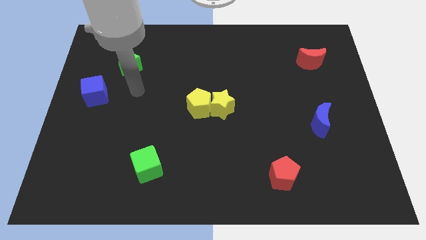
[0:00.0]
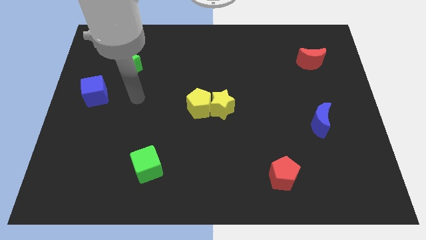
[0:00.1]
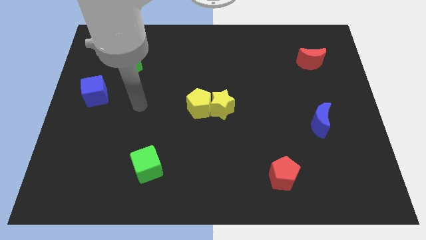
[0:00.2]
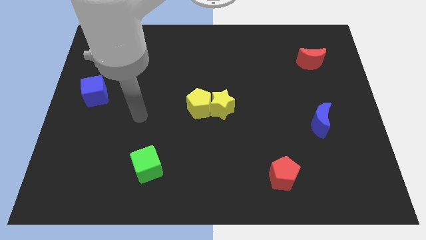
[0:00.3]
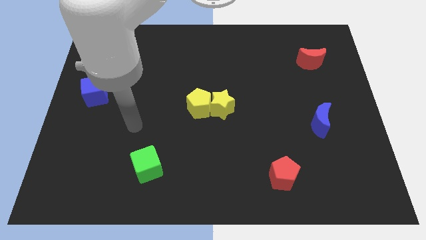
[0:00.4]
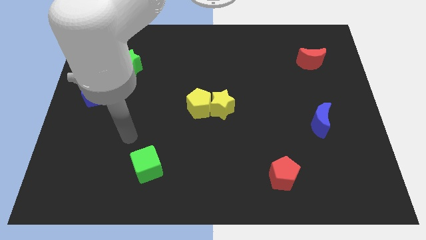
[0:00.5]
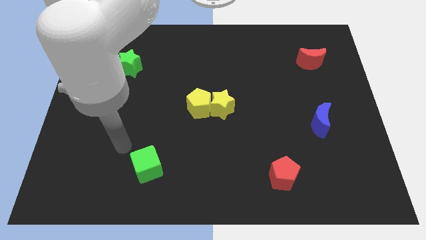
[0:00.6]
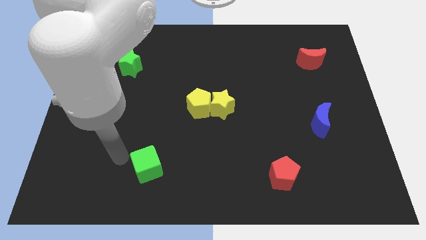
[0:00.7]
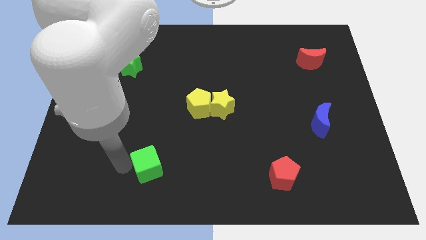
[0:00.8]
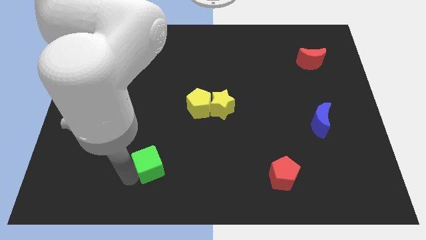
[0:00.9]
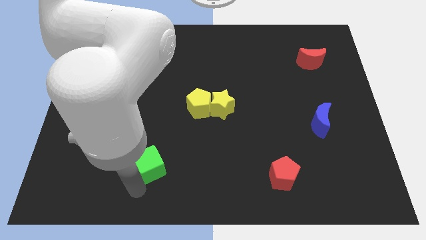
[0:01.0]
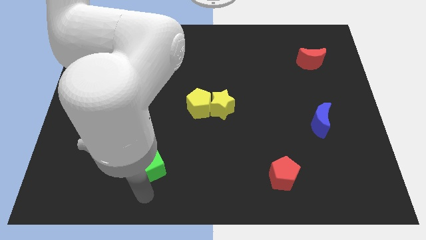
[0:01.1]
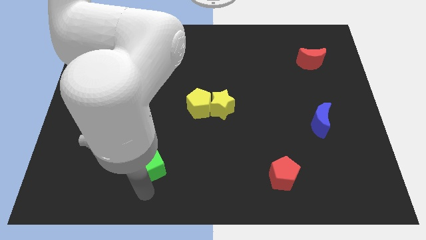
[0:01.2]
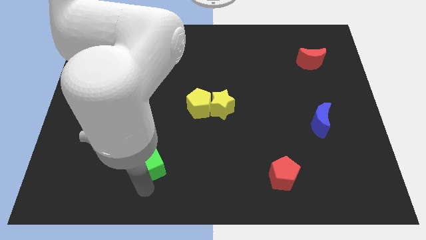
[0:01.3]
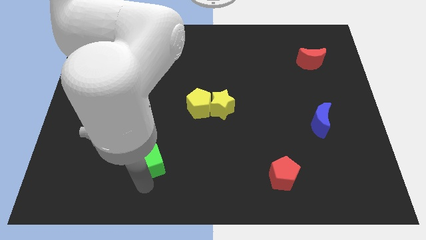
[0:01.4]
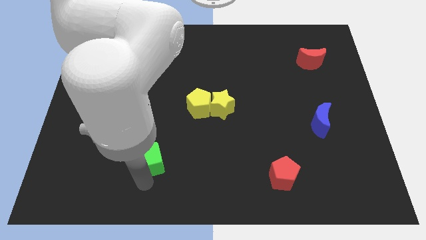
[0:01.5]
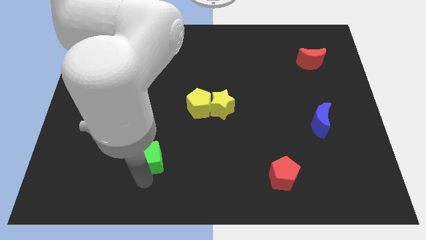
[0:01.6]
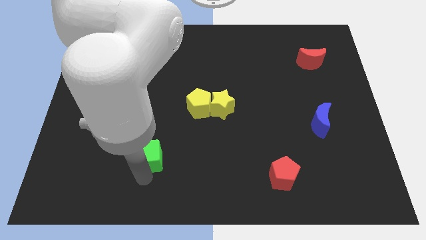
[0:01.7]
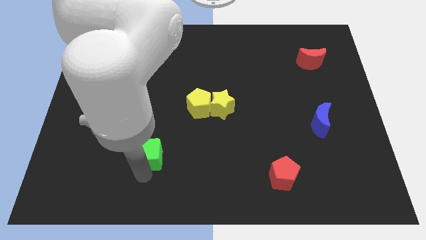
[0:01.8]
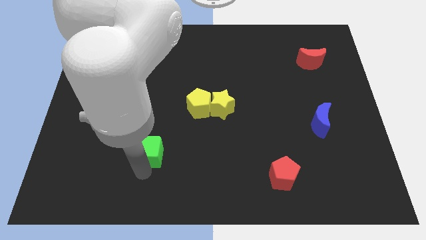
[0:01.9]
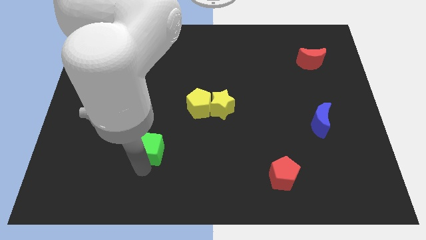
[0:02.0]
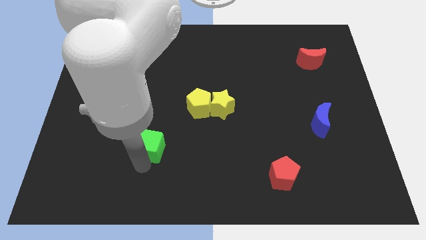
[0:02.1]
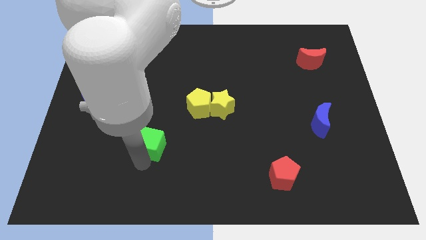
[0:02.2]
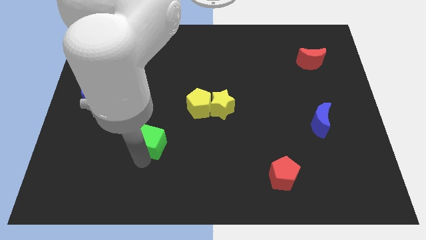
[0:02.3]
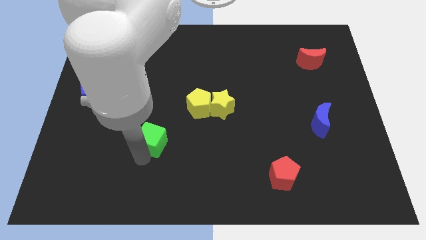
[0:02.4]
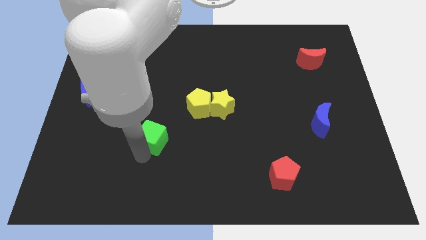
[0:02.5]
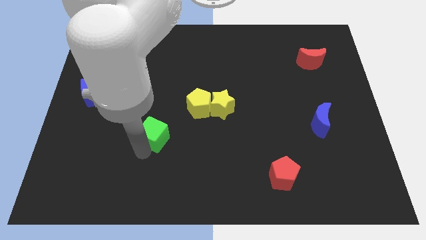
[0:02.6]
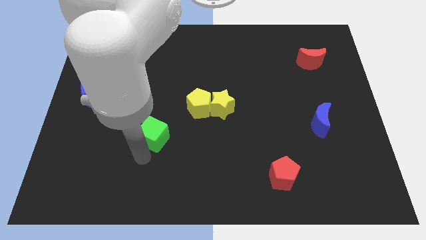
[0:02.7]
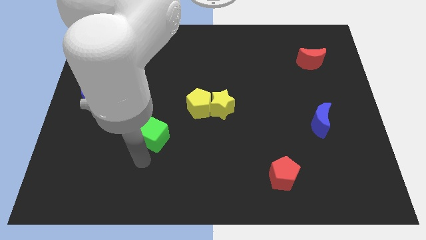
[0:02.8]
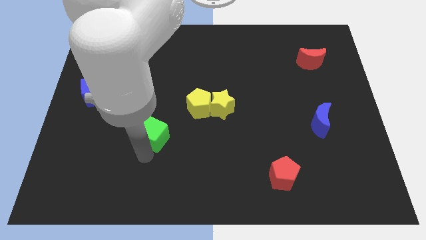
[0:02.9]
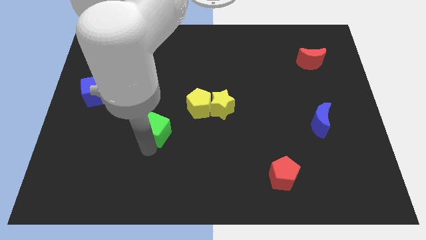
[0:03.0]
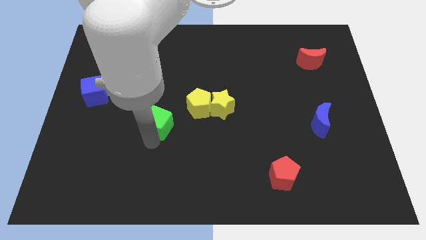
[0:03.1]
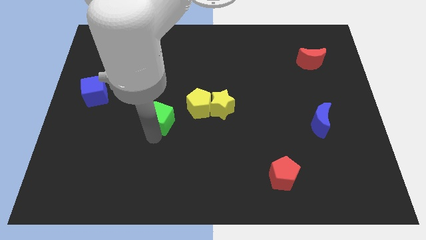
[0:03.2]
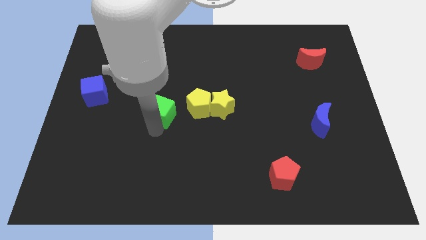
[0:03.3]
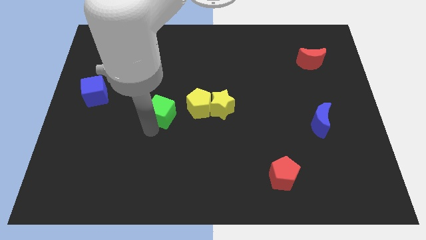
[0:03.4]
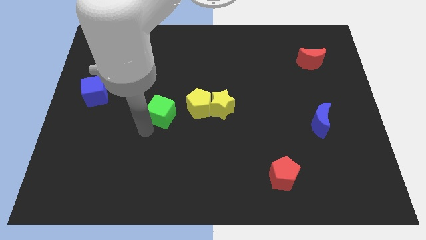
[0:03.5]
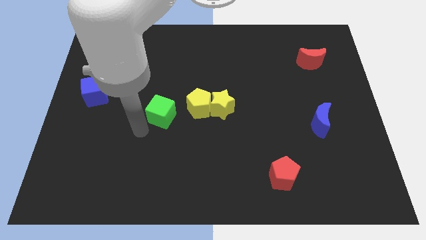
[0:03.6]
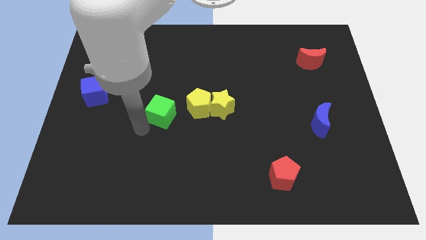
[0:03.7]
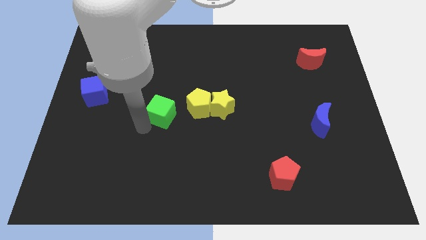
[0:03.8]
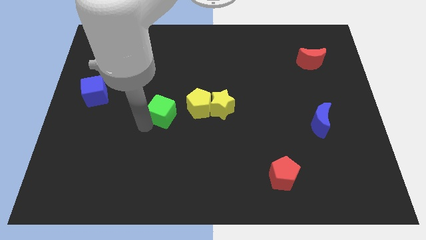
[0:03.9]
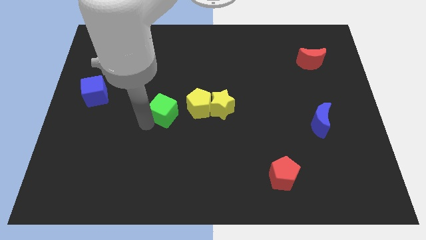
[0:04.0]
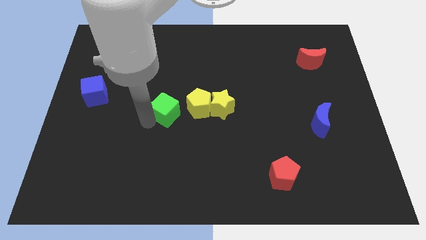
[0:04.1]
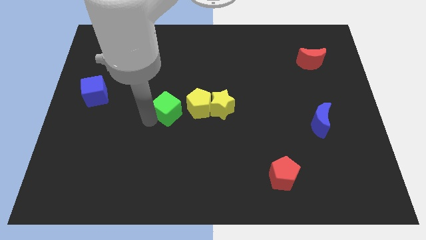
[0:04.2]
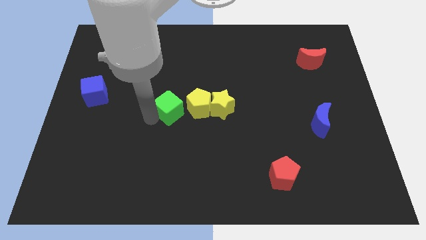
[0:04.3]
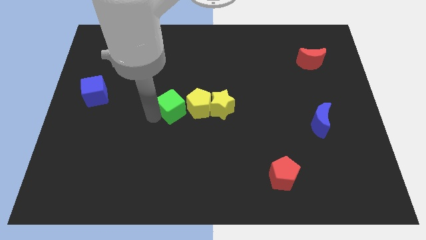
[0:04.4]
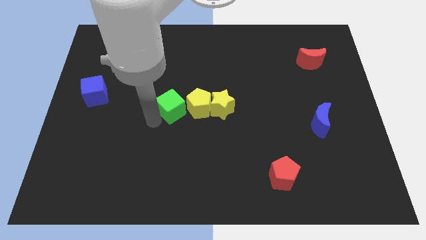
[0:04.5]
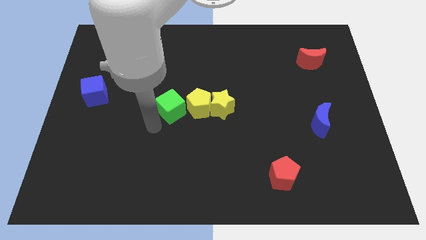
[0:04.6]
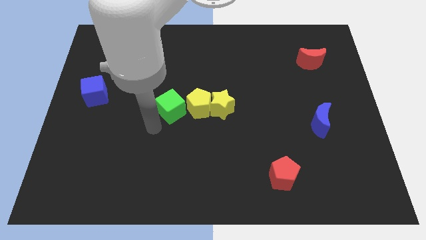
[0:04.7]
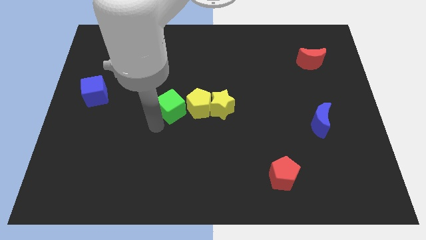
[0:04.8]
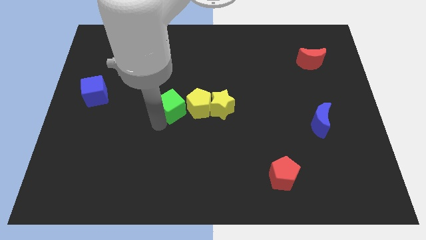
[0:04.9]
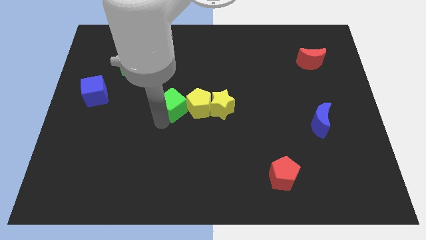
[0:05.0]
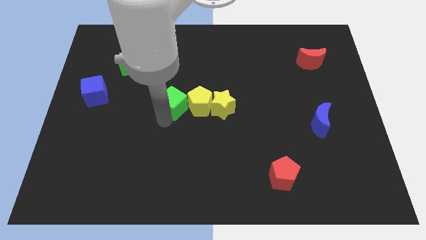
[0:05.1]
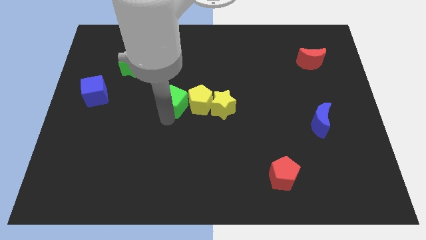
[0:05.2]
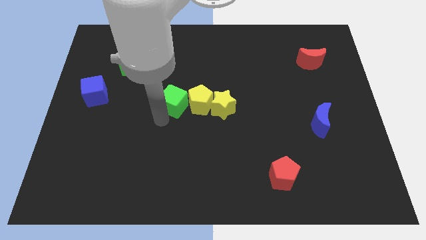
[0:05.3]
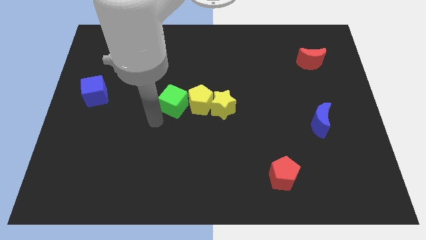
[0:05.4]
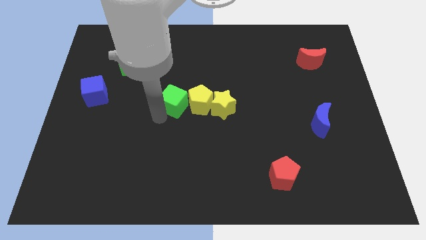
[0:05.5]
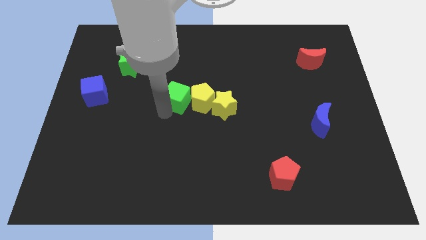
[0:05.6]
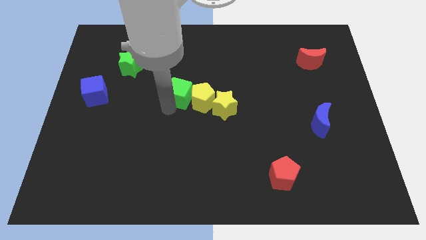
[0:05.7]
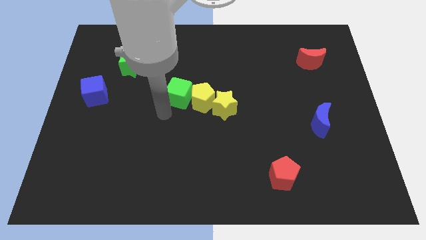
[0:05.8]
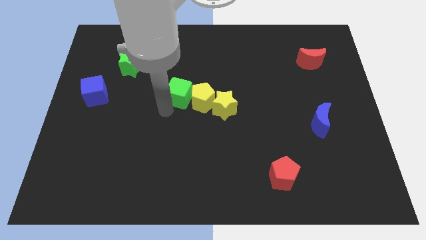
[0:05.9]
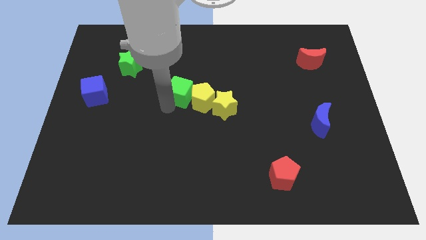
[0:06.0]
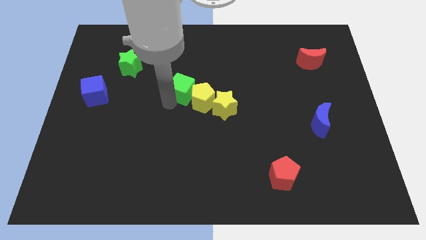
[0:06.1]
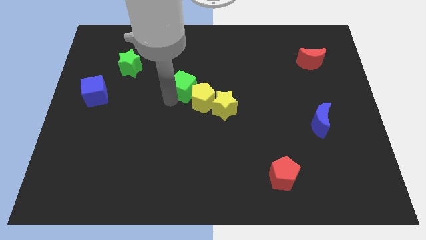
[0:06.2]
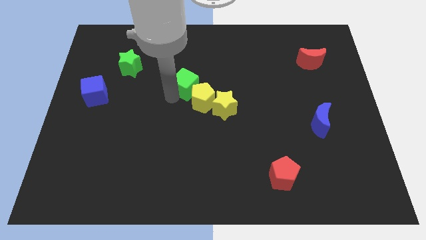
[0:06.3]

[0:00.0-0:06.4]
push the green cube to the top side of the yellow pentagon

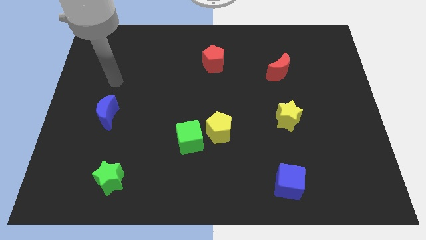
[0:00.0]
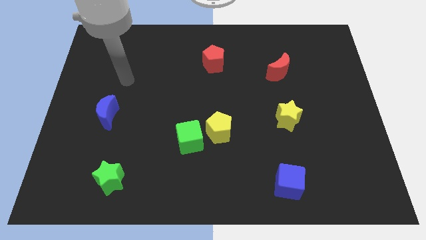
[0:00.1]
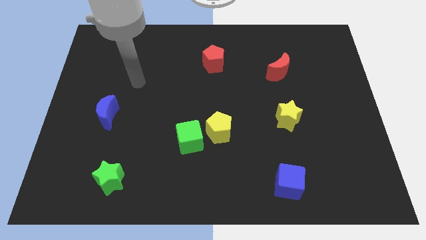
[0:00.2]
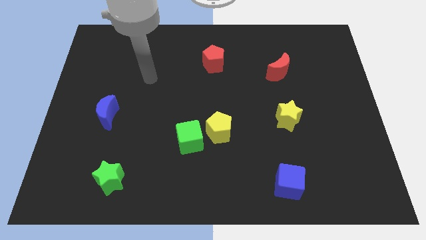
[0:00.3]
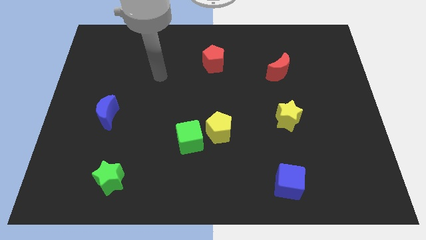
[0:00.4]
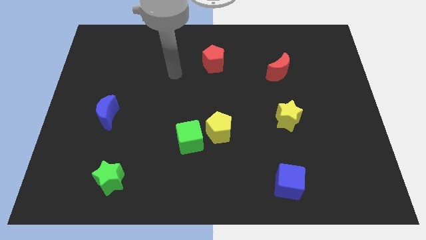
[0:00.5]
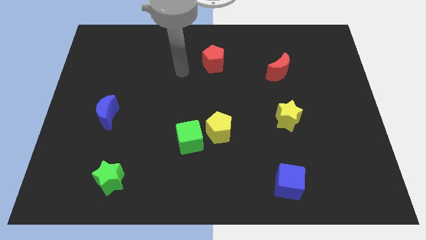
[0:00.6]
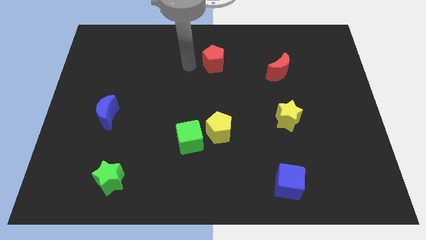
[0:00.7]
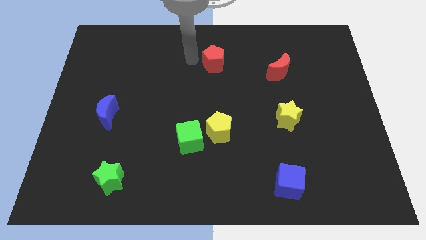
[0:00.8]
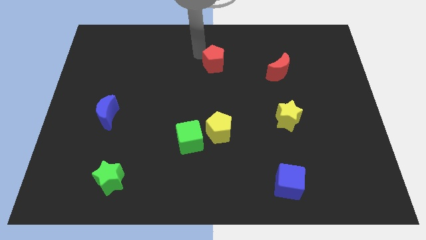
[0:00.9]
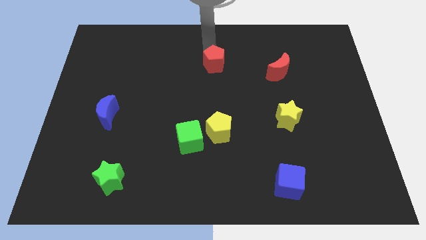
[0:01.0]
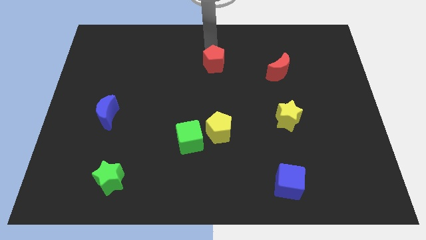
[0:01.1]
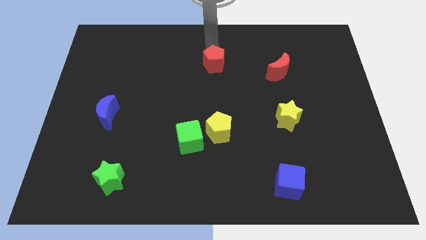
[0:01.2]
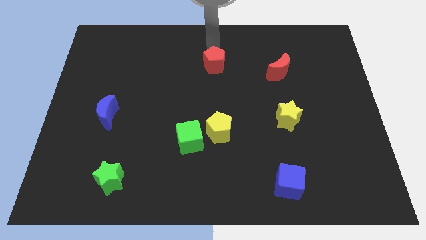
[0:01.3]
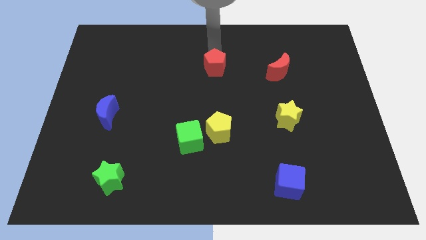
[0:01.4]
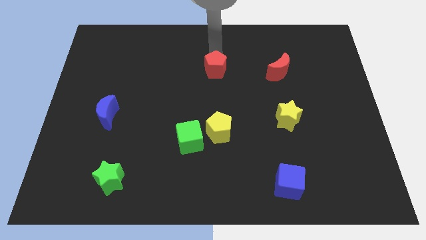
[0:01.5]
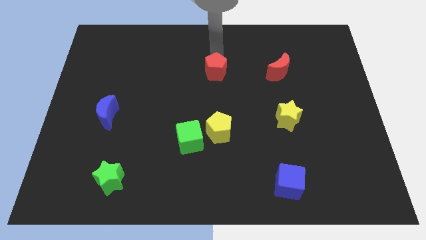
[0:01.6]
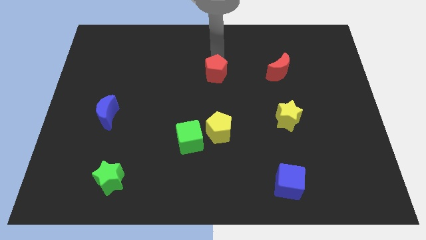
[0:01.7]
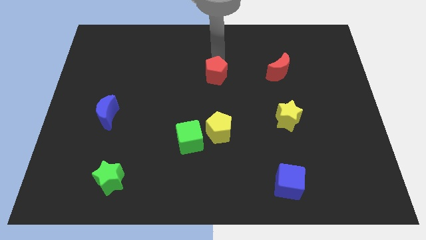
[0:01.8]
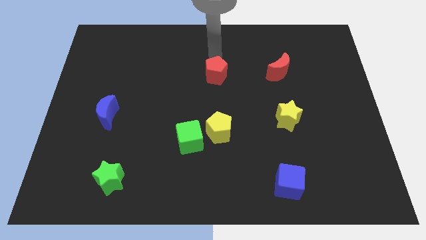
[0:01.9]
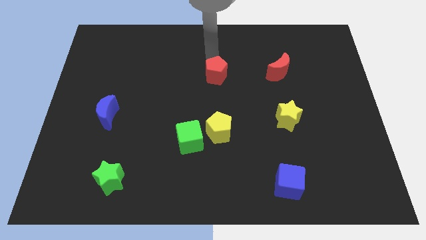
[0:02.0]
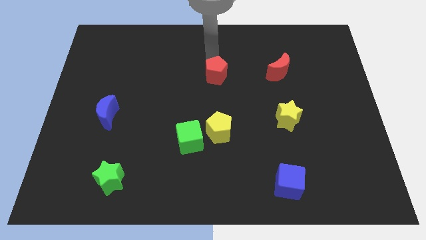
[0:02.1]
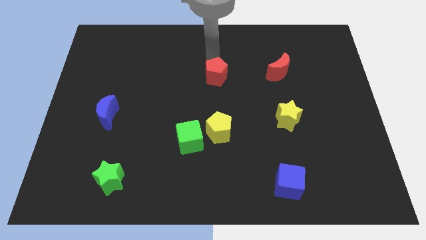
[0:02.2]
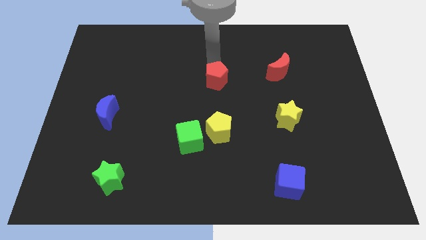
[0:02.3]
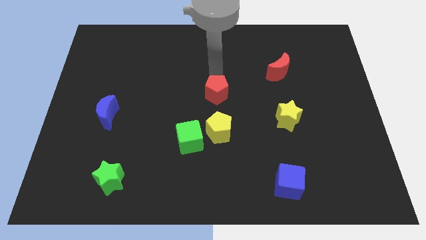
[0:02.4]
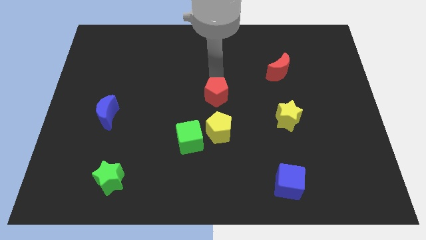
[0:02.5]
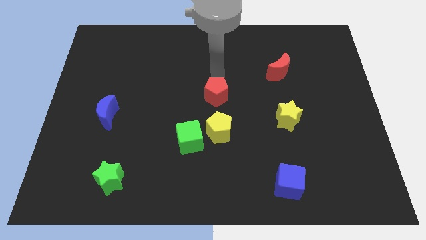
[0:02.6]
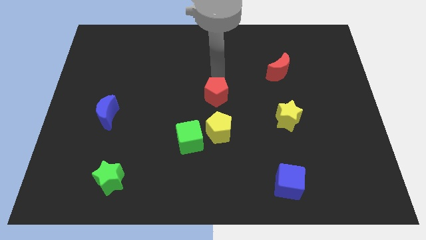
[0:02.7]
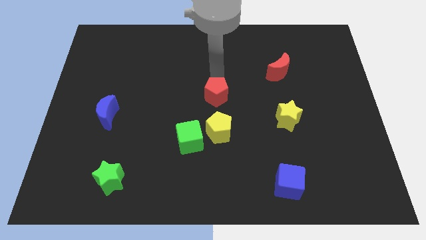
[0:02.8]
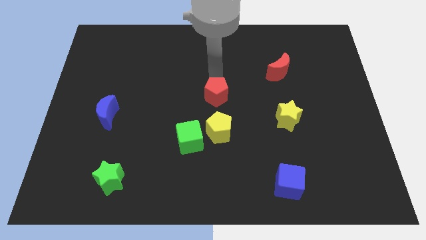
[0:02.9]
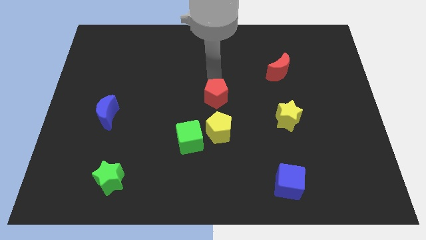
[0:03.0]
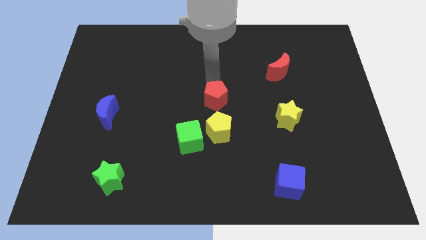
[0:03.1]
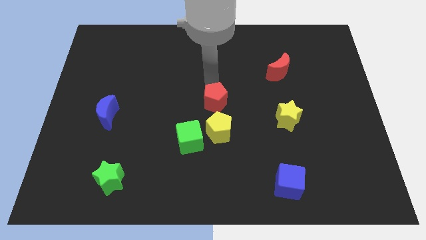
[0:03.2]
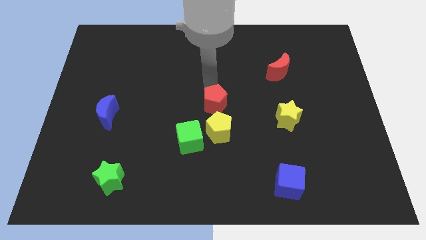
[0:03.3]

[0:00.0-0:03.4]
slide the red pentagon diagonally up and to the right of the green cube
